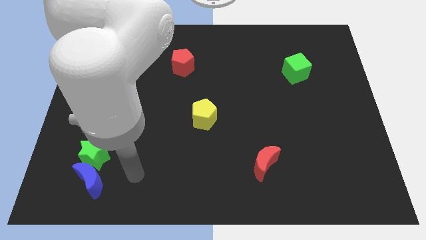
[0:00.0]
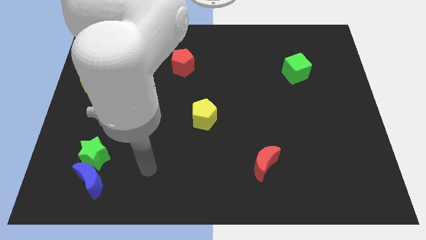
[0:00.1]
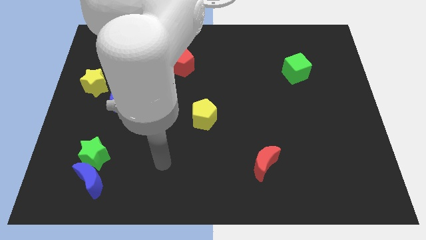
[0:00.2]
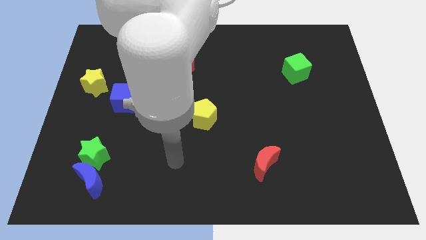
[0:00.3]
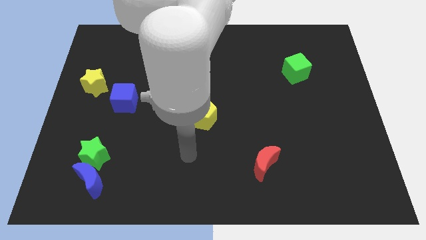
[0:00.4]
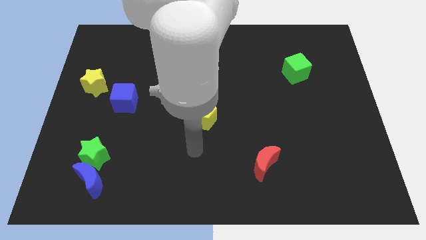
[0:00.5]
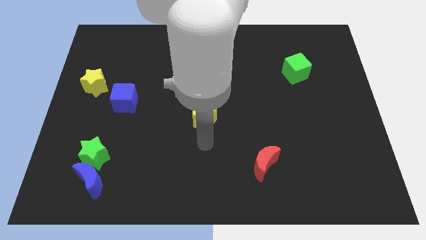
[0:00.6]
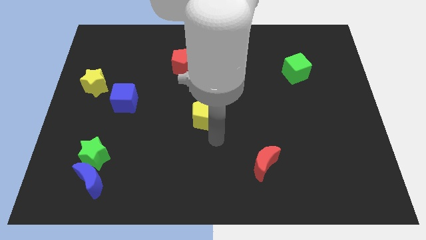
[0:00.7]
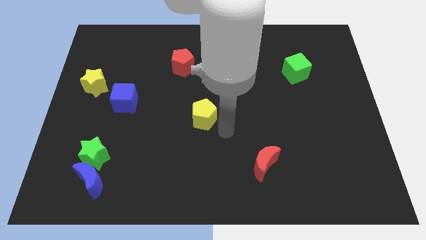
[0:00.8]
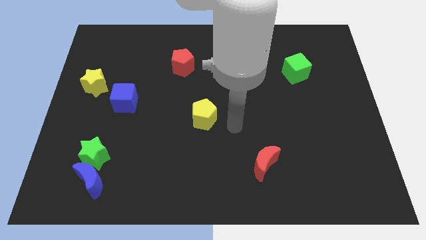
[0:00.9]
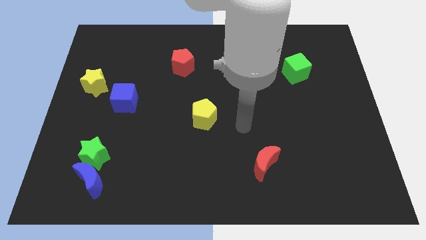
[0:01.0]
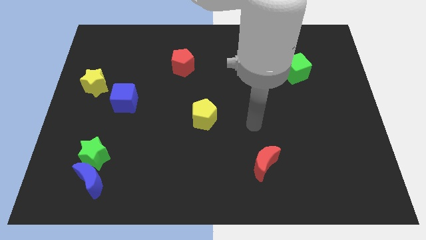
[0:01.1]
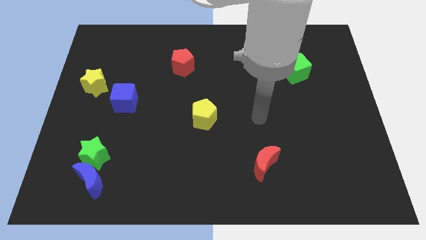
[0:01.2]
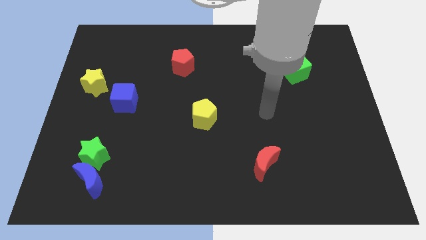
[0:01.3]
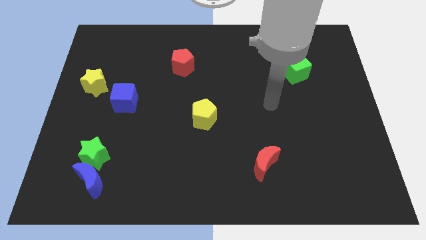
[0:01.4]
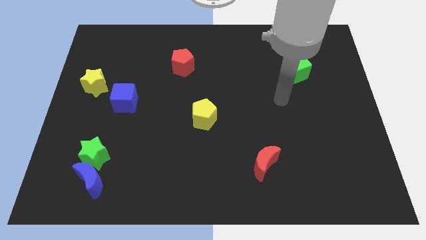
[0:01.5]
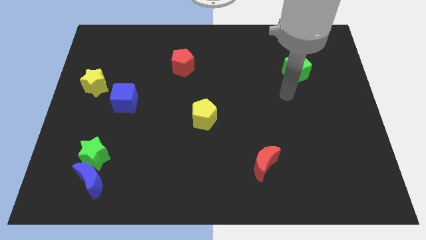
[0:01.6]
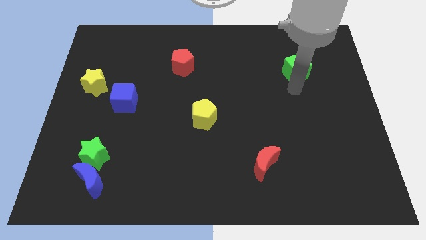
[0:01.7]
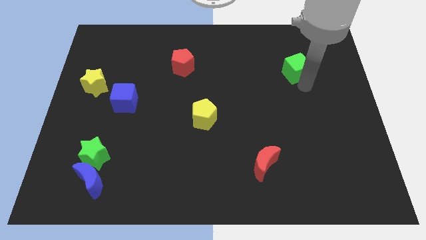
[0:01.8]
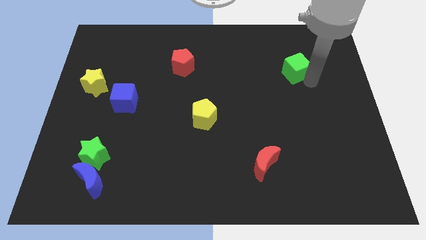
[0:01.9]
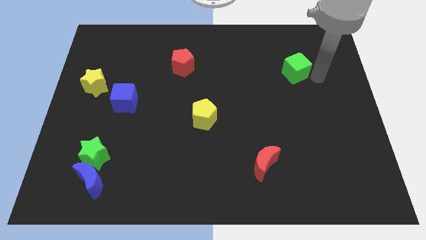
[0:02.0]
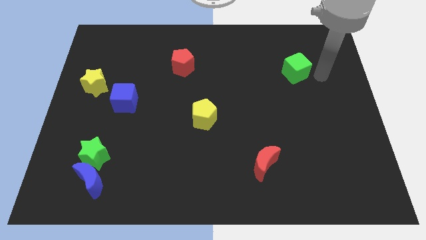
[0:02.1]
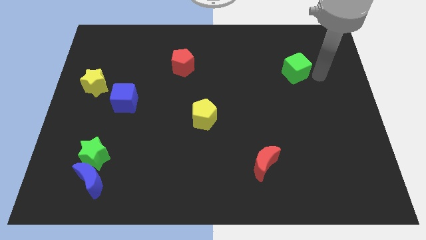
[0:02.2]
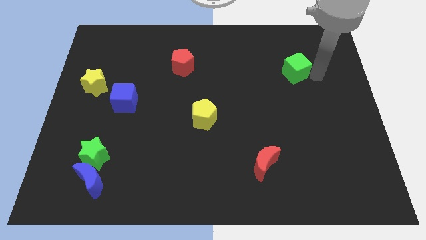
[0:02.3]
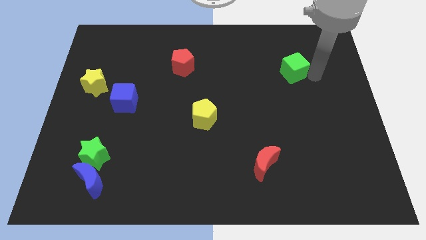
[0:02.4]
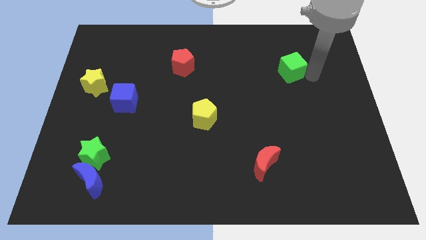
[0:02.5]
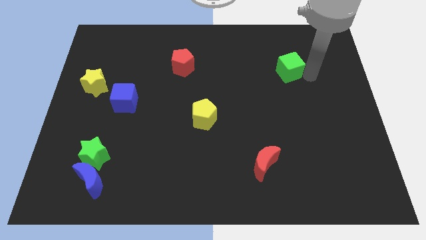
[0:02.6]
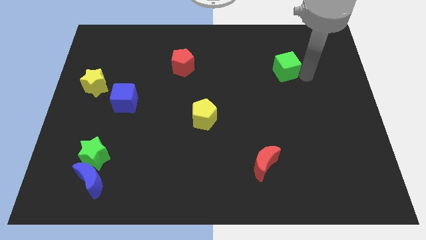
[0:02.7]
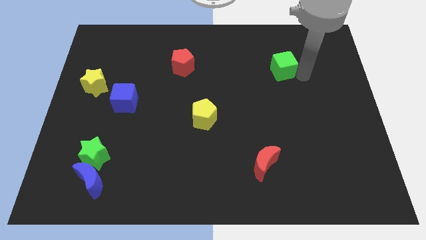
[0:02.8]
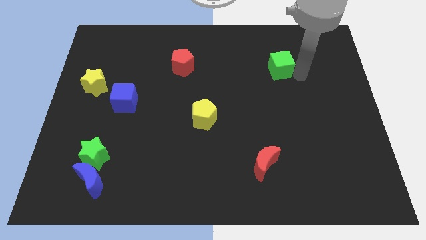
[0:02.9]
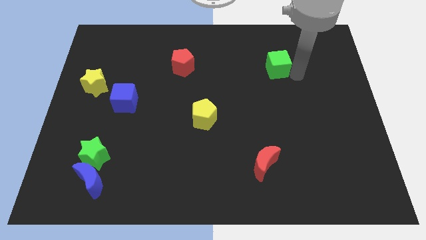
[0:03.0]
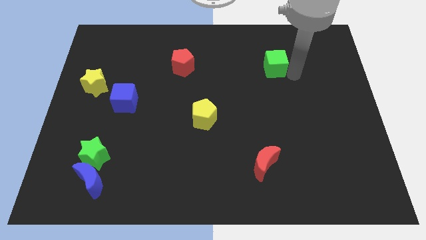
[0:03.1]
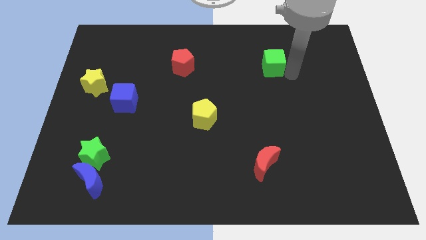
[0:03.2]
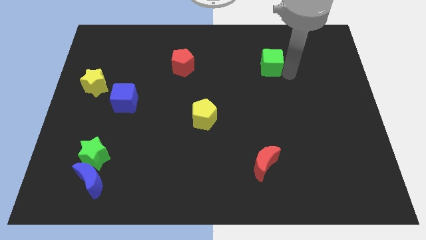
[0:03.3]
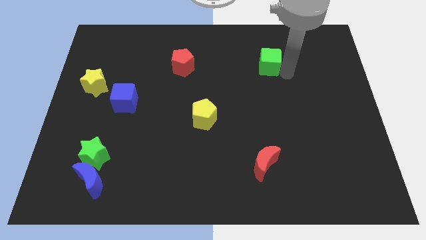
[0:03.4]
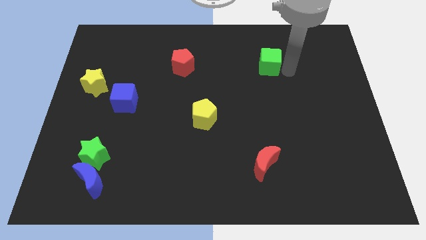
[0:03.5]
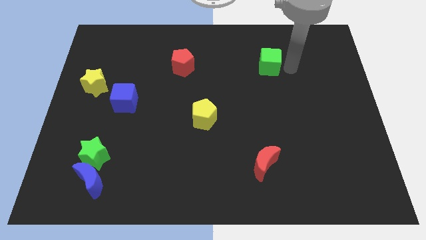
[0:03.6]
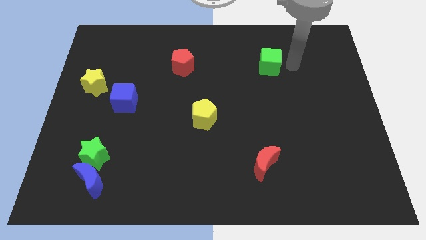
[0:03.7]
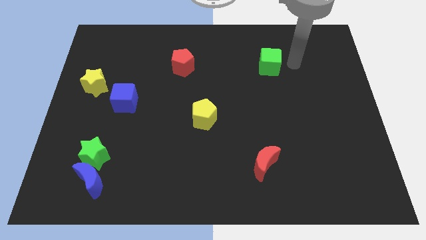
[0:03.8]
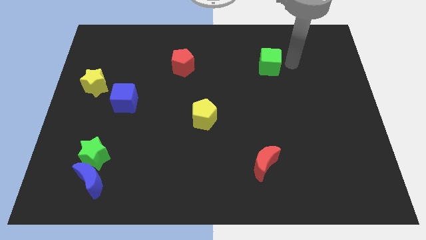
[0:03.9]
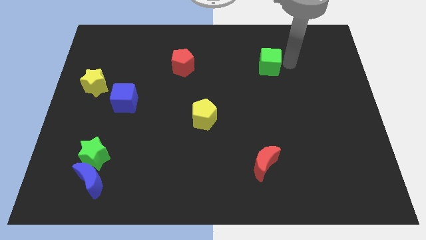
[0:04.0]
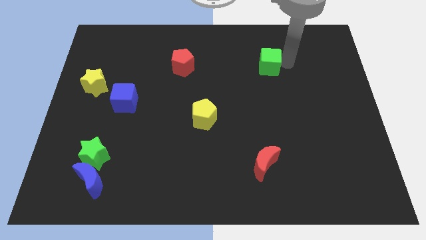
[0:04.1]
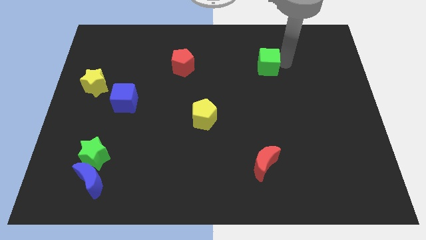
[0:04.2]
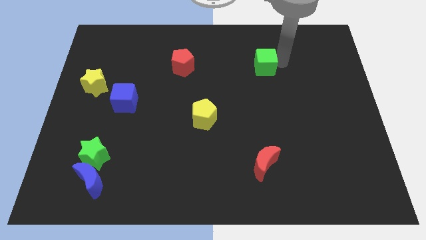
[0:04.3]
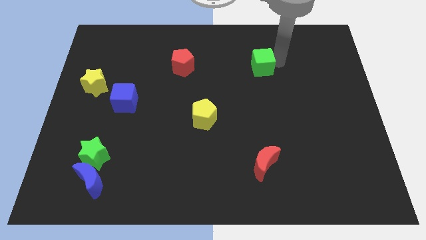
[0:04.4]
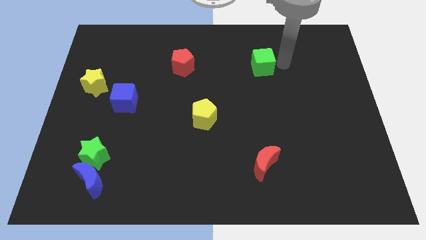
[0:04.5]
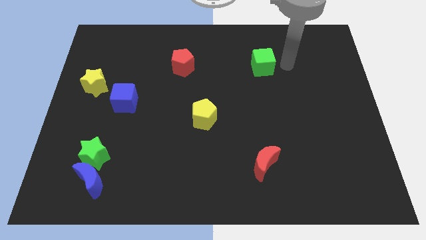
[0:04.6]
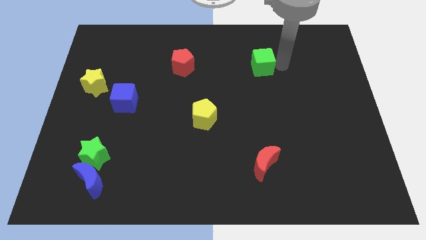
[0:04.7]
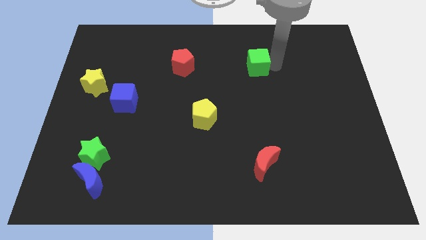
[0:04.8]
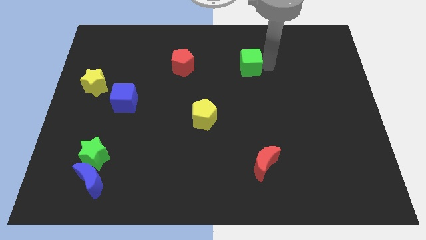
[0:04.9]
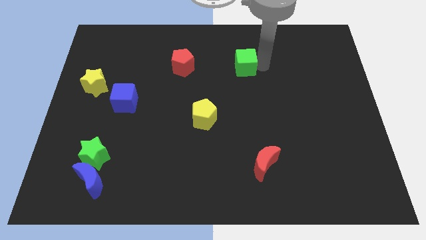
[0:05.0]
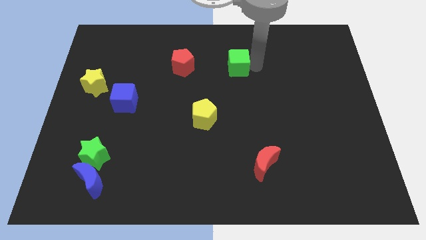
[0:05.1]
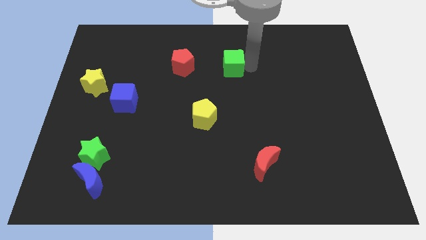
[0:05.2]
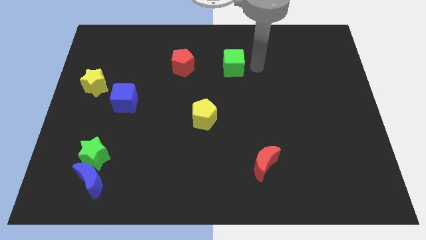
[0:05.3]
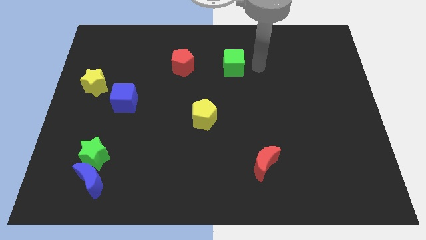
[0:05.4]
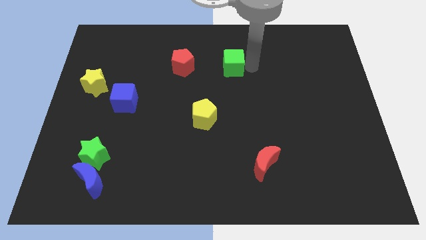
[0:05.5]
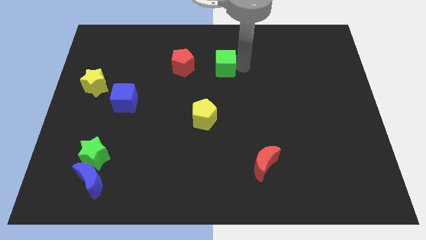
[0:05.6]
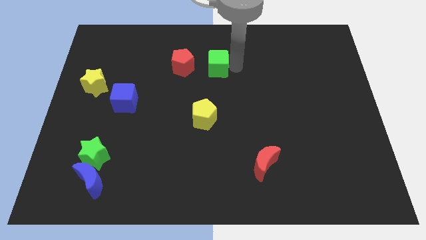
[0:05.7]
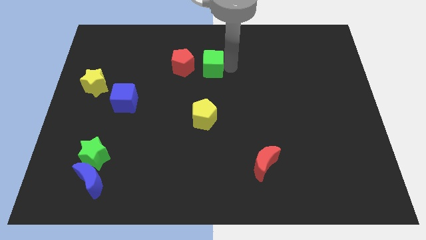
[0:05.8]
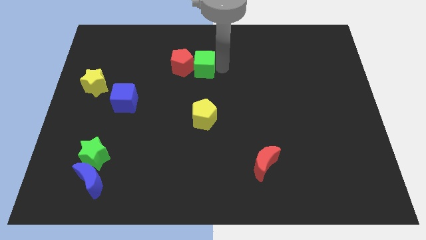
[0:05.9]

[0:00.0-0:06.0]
put the green cube next to the red pentagon

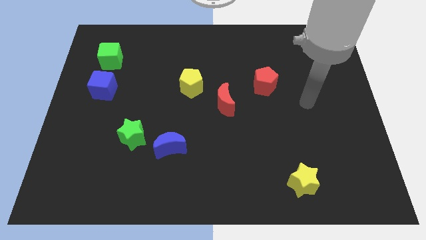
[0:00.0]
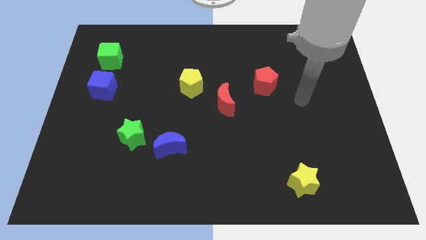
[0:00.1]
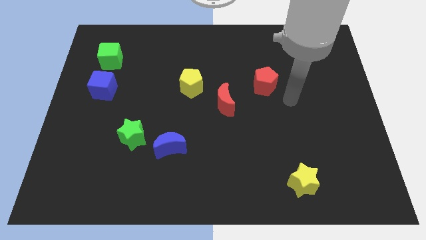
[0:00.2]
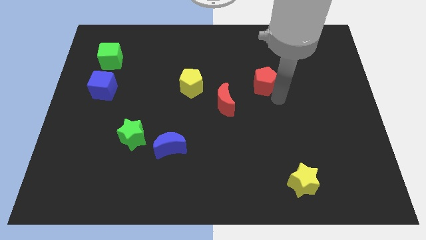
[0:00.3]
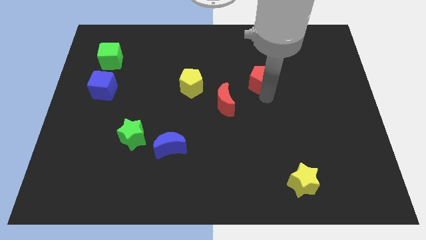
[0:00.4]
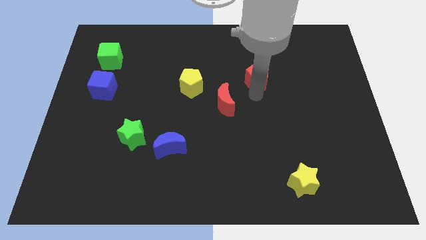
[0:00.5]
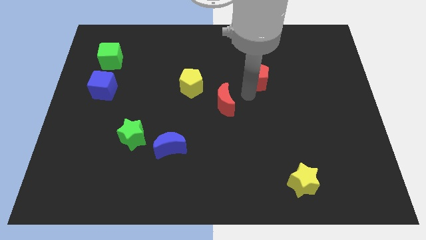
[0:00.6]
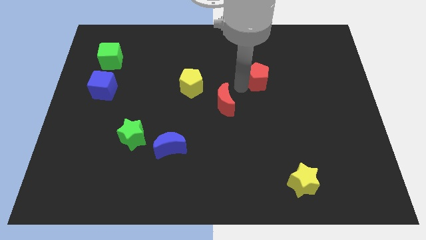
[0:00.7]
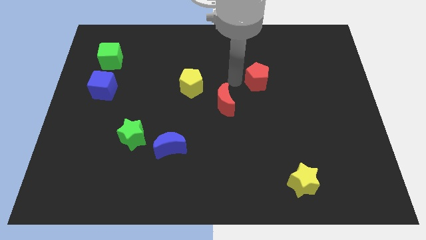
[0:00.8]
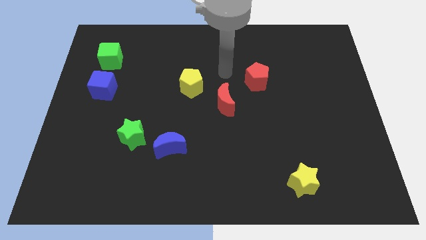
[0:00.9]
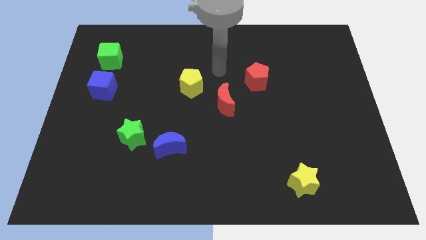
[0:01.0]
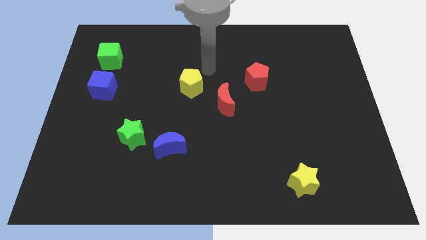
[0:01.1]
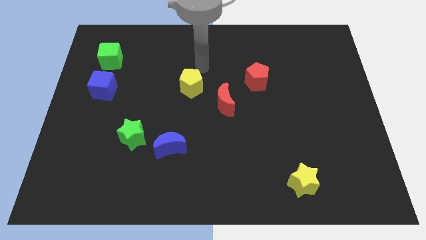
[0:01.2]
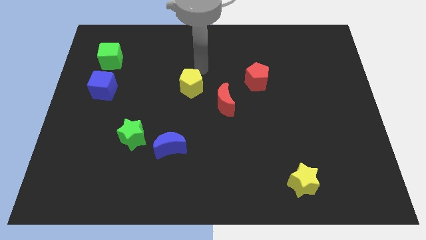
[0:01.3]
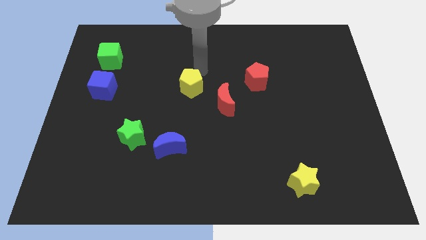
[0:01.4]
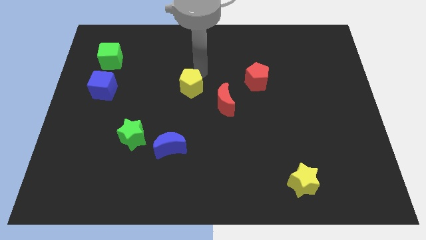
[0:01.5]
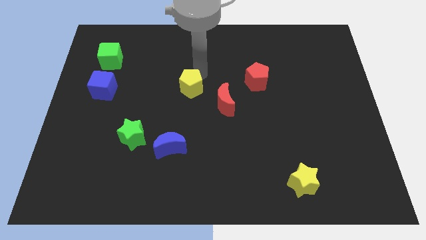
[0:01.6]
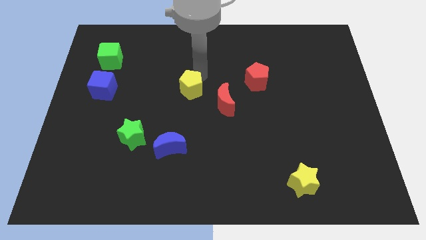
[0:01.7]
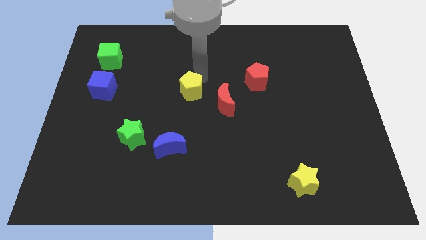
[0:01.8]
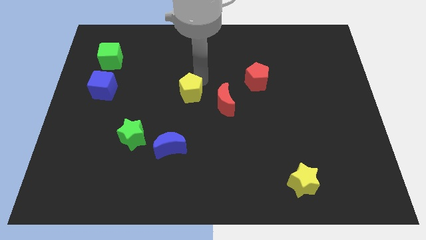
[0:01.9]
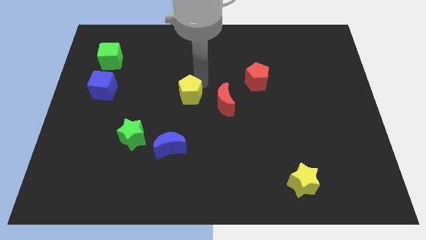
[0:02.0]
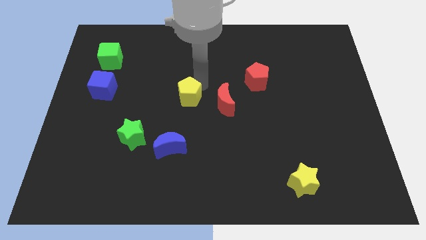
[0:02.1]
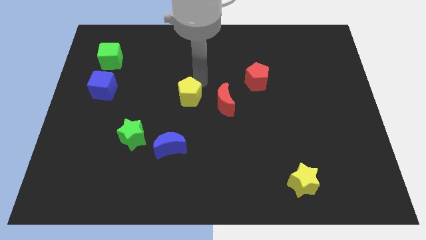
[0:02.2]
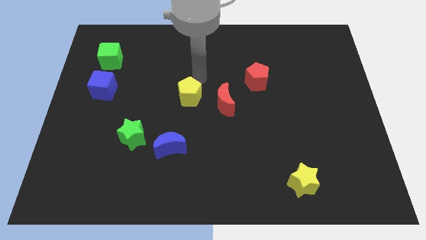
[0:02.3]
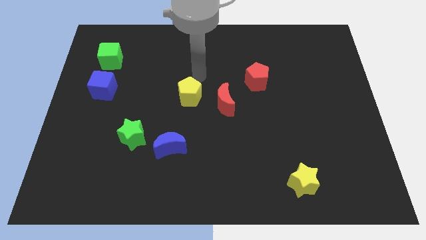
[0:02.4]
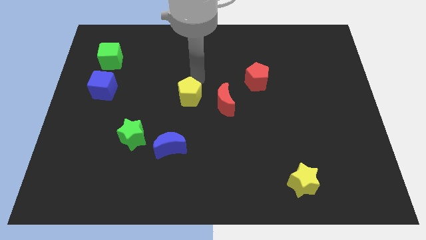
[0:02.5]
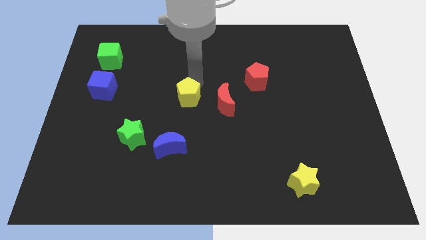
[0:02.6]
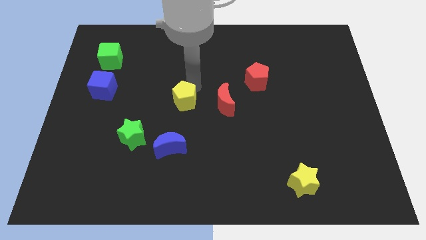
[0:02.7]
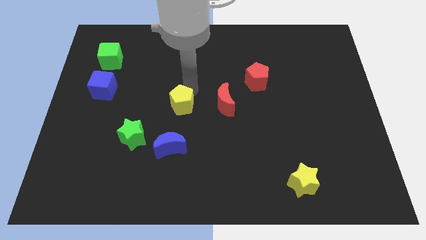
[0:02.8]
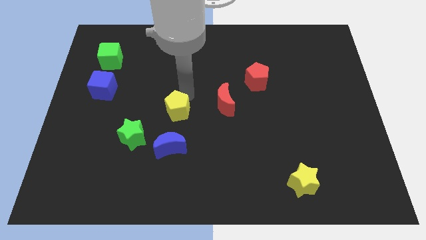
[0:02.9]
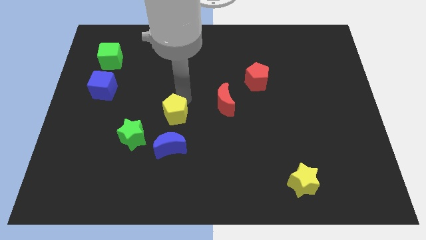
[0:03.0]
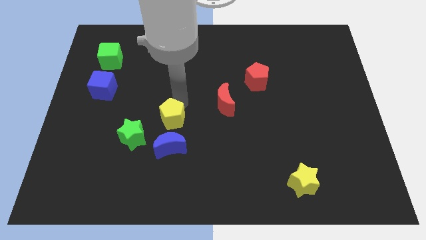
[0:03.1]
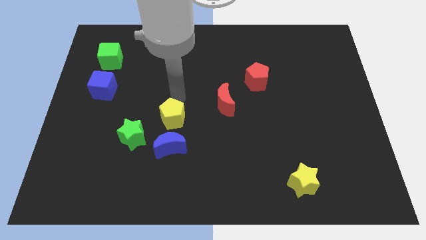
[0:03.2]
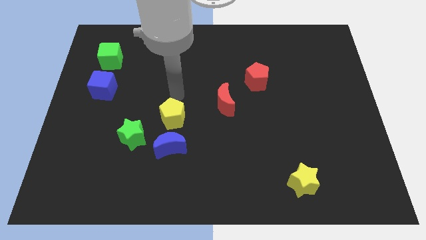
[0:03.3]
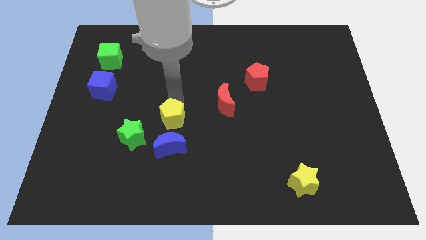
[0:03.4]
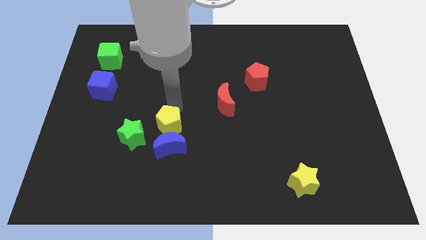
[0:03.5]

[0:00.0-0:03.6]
put the yellow pentagon to the blue moon
